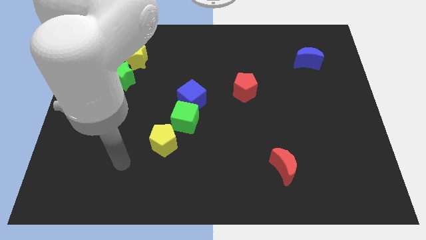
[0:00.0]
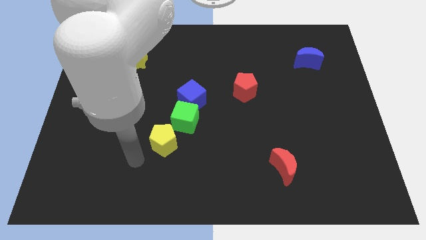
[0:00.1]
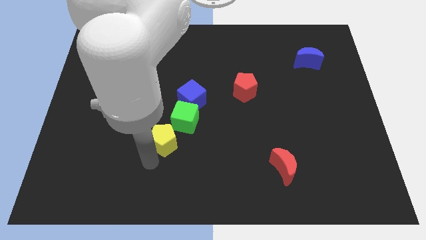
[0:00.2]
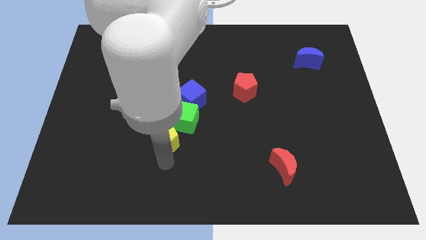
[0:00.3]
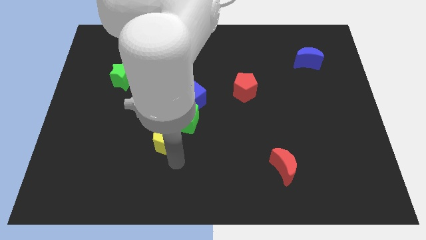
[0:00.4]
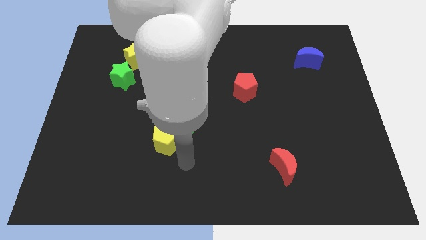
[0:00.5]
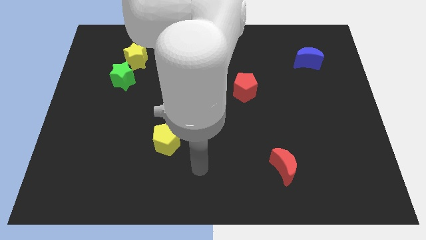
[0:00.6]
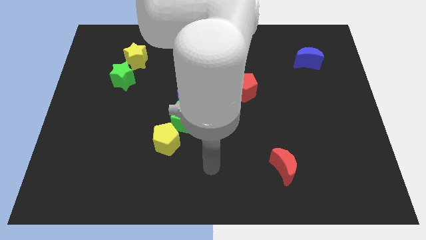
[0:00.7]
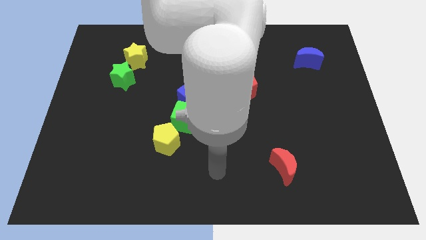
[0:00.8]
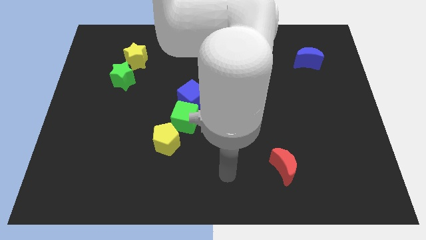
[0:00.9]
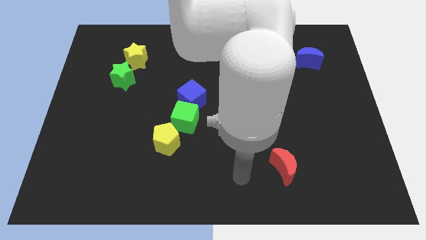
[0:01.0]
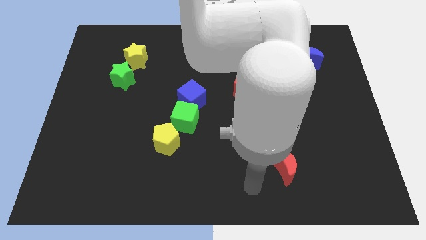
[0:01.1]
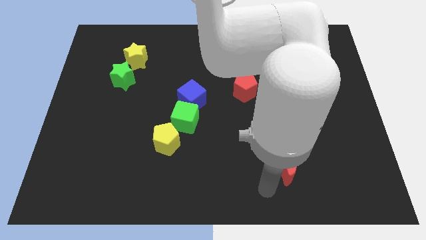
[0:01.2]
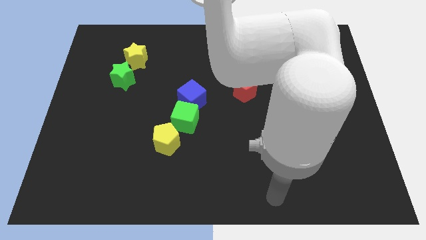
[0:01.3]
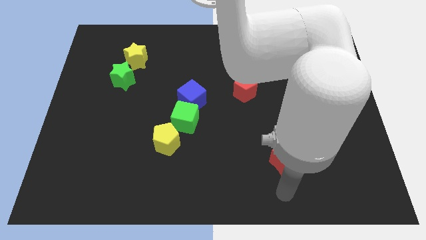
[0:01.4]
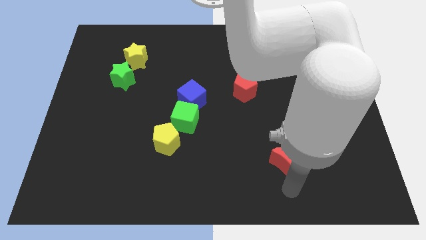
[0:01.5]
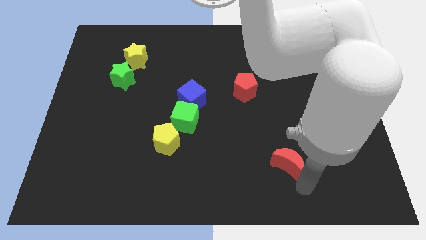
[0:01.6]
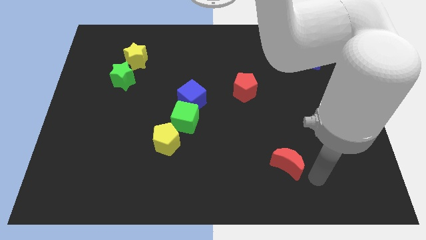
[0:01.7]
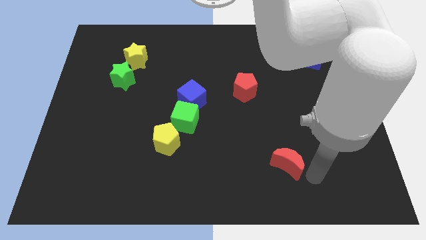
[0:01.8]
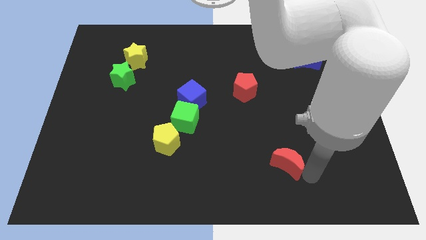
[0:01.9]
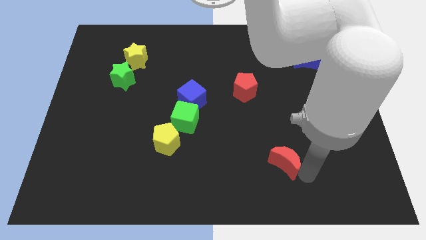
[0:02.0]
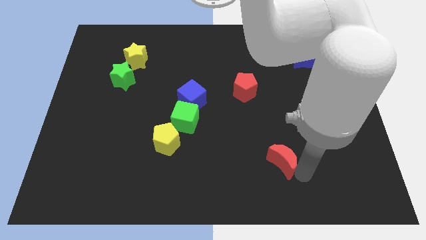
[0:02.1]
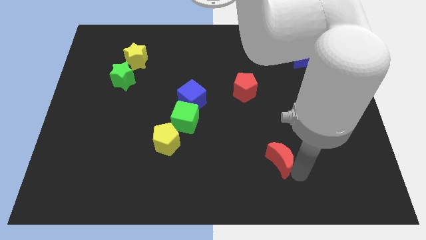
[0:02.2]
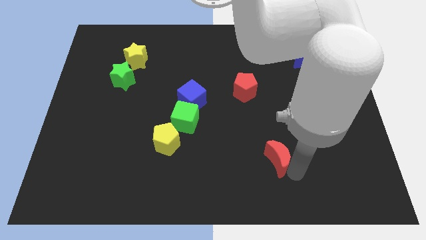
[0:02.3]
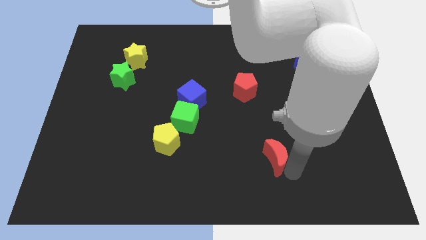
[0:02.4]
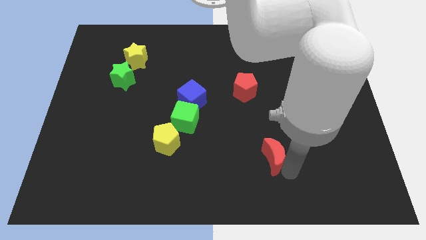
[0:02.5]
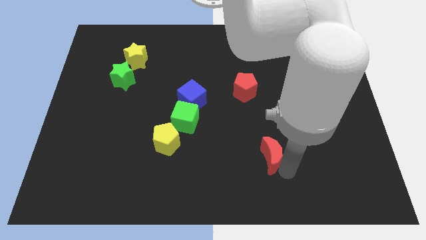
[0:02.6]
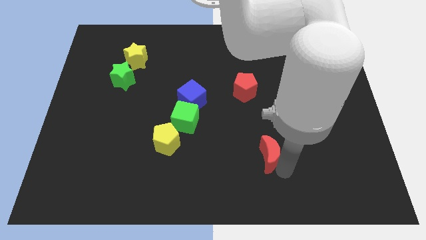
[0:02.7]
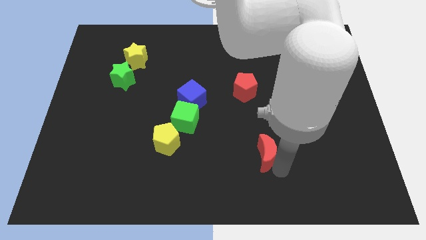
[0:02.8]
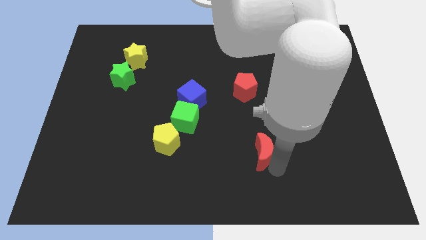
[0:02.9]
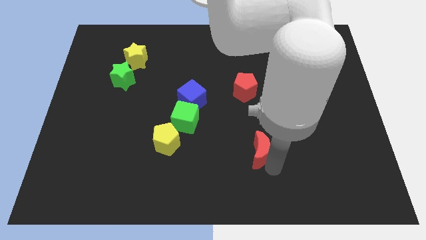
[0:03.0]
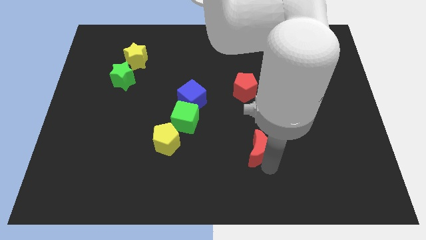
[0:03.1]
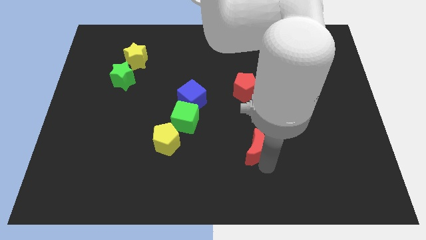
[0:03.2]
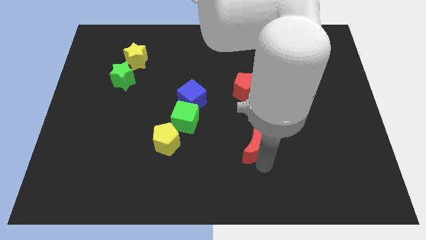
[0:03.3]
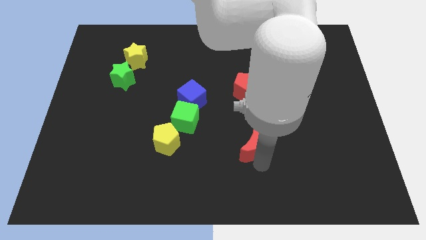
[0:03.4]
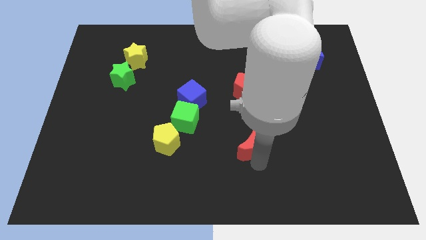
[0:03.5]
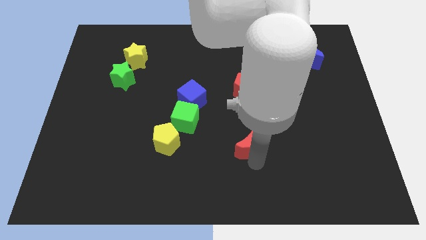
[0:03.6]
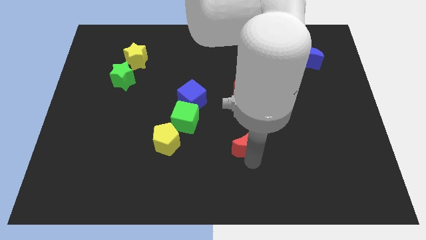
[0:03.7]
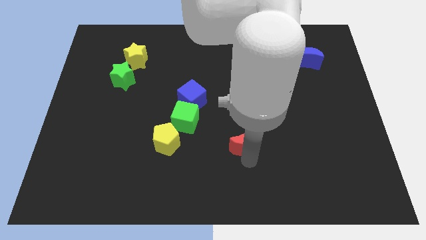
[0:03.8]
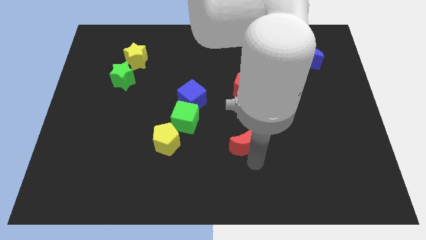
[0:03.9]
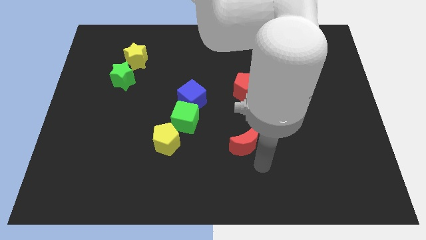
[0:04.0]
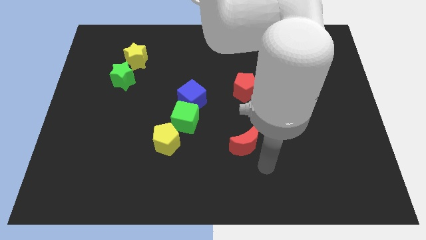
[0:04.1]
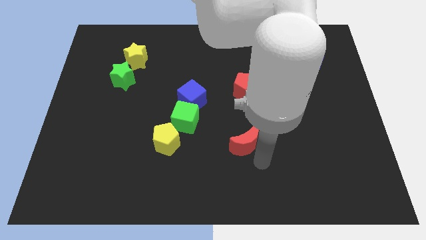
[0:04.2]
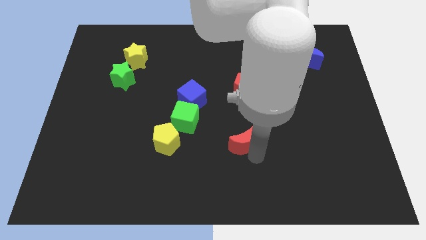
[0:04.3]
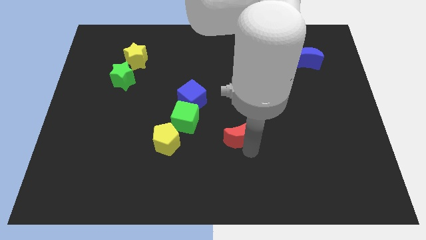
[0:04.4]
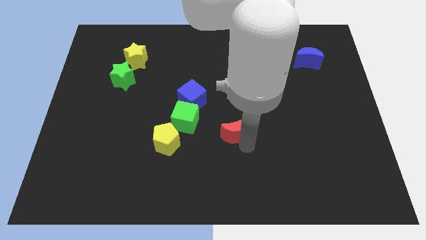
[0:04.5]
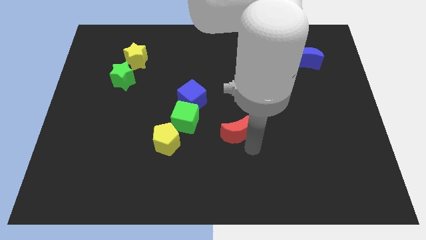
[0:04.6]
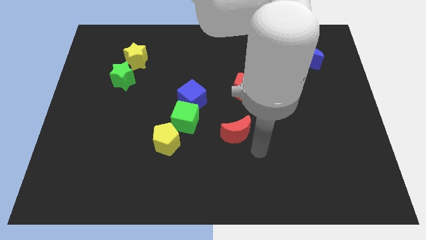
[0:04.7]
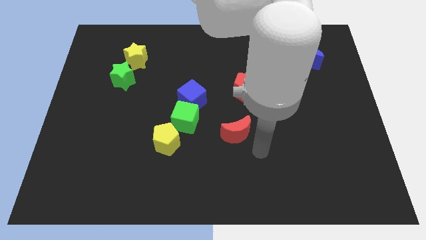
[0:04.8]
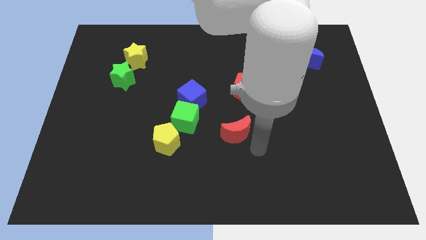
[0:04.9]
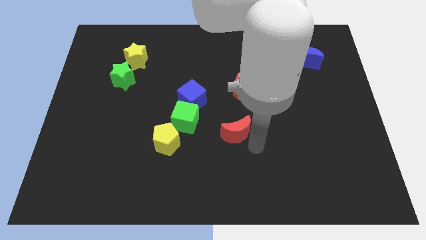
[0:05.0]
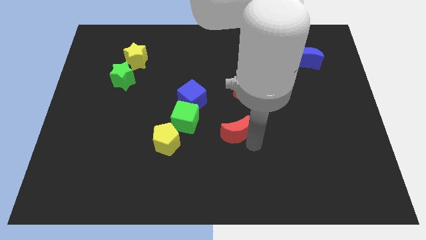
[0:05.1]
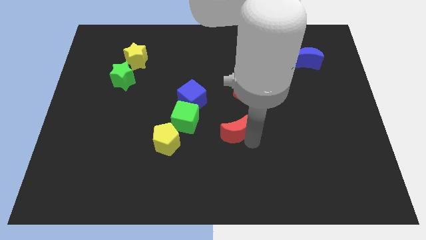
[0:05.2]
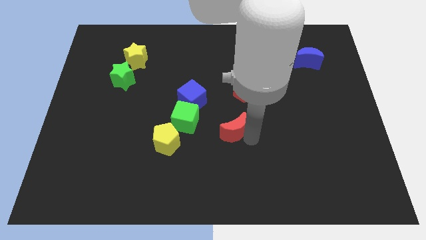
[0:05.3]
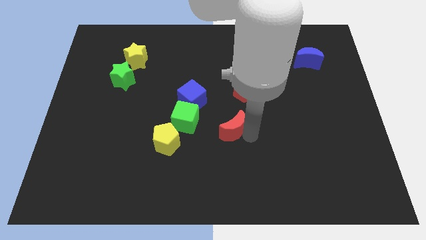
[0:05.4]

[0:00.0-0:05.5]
push the red moon to the bottom right of the blue cube

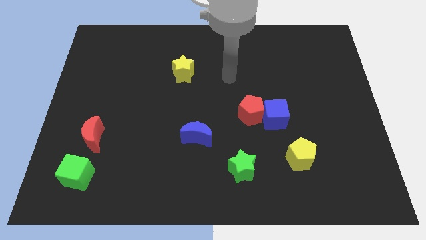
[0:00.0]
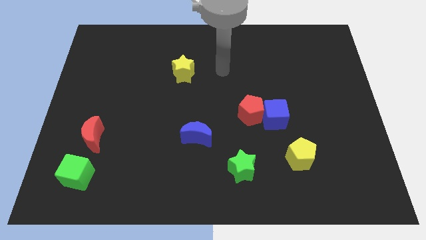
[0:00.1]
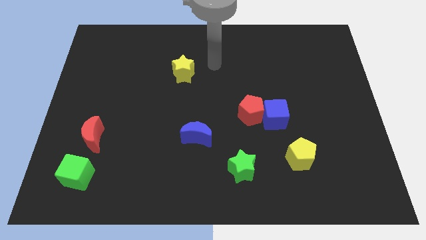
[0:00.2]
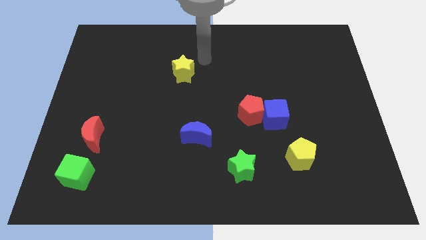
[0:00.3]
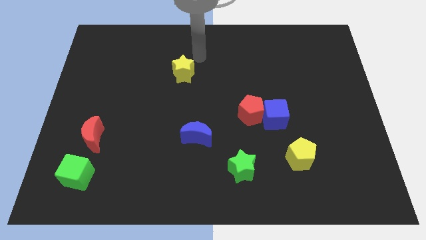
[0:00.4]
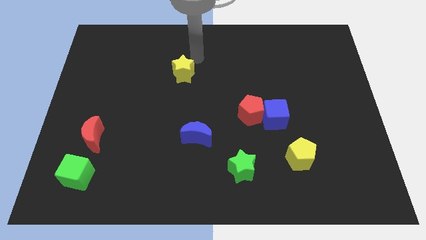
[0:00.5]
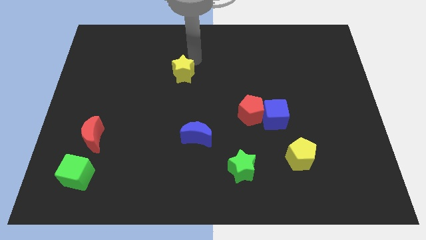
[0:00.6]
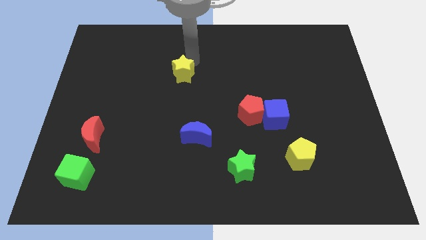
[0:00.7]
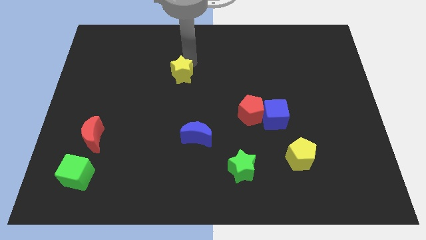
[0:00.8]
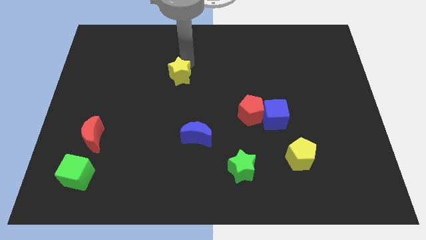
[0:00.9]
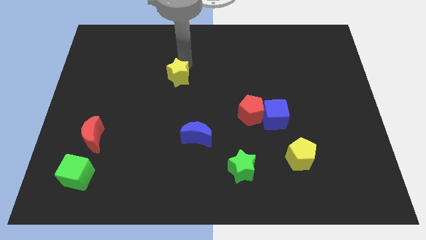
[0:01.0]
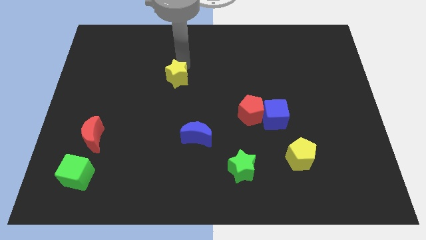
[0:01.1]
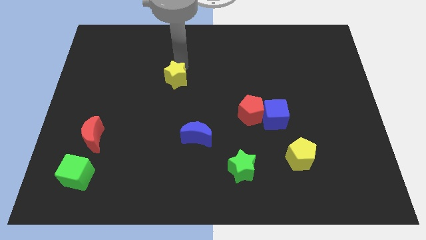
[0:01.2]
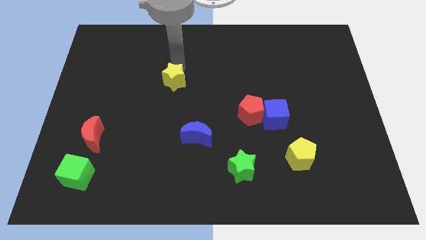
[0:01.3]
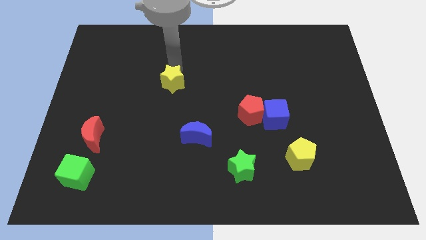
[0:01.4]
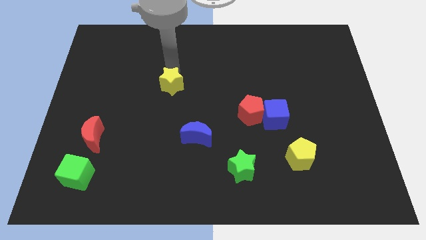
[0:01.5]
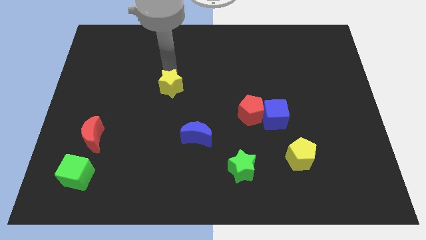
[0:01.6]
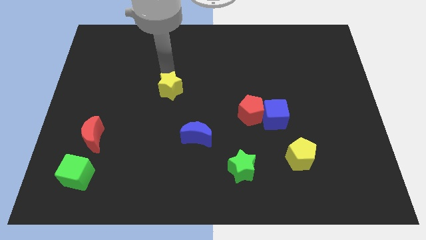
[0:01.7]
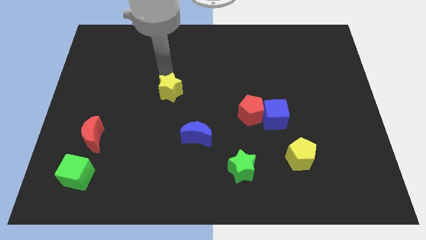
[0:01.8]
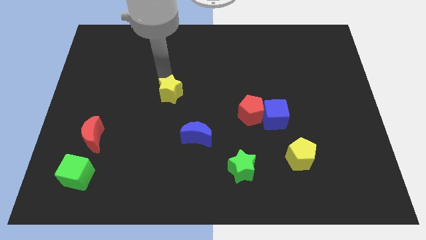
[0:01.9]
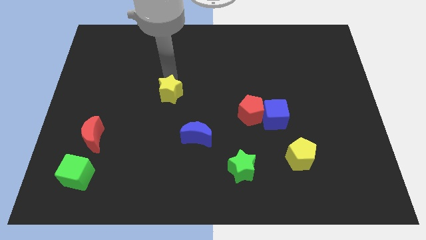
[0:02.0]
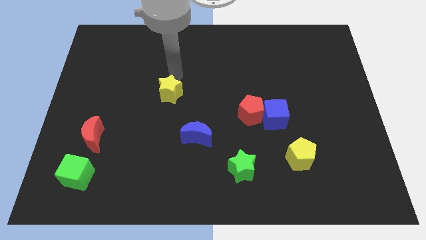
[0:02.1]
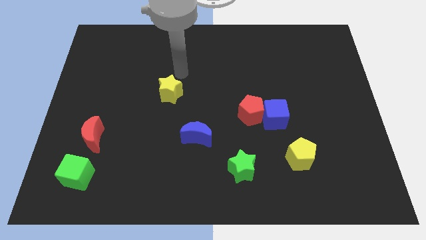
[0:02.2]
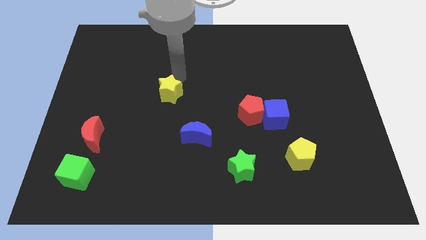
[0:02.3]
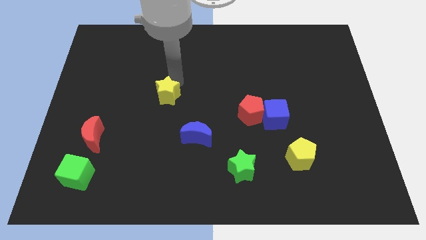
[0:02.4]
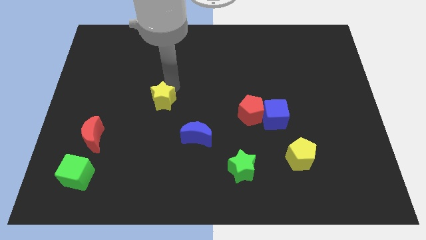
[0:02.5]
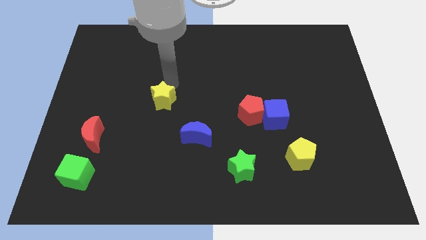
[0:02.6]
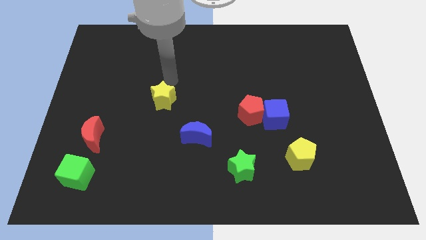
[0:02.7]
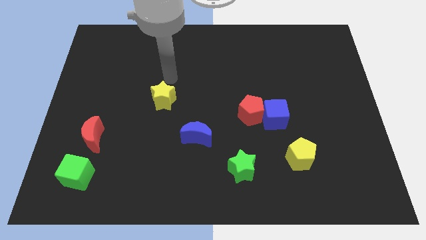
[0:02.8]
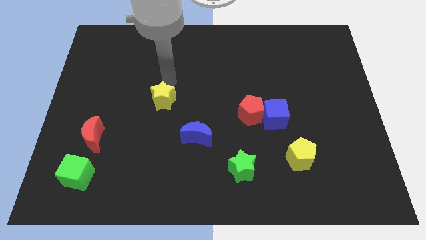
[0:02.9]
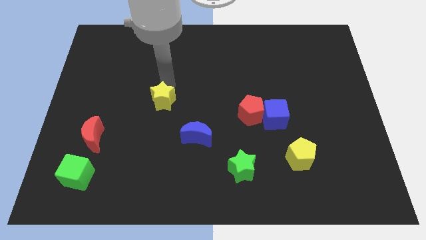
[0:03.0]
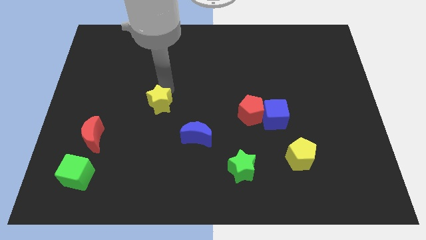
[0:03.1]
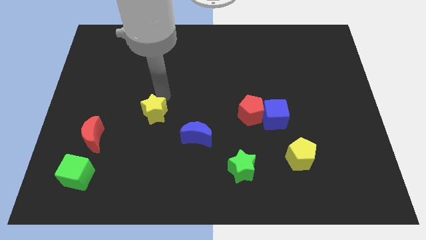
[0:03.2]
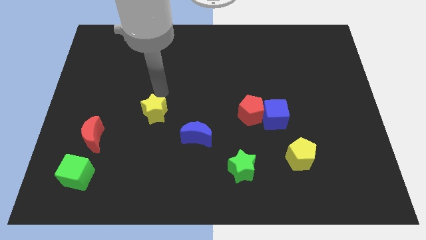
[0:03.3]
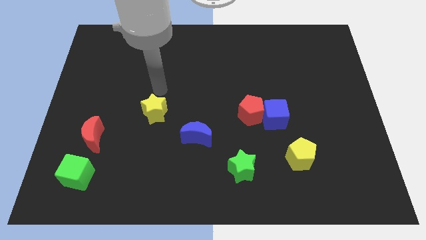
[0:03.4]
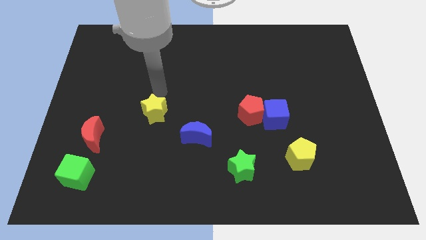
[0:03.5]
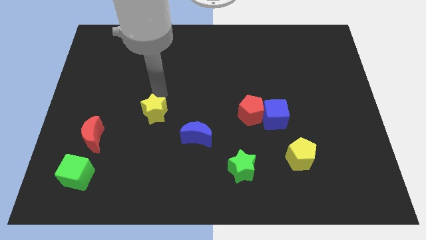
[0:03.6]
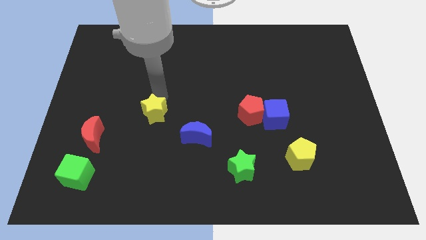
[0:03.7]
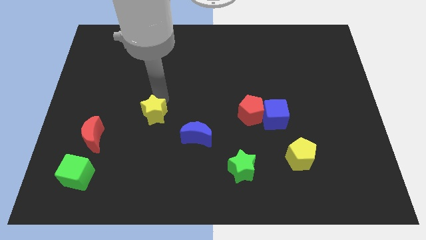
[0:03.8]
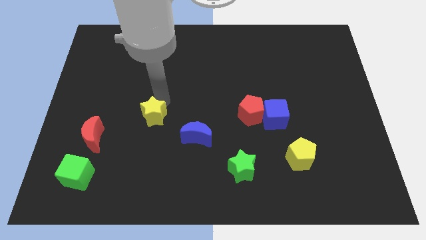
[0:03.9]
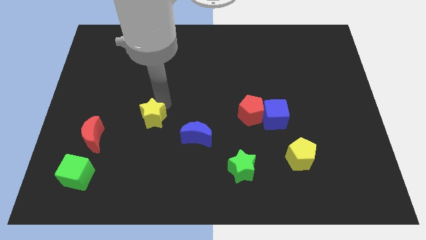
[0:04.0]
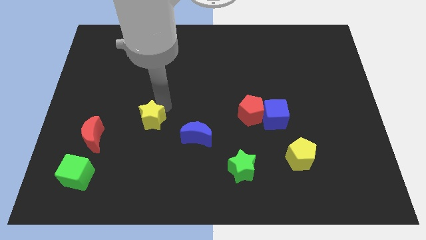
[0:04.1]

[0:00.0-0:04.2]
slide the yellow star left of the blue moon
